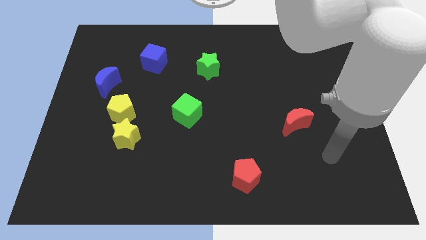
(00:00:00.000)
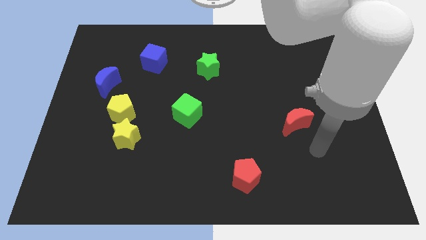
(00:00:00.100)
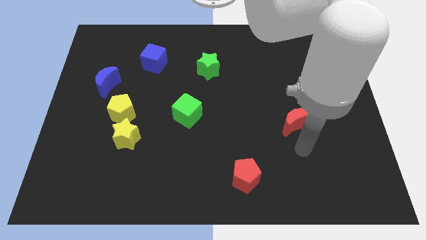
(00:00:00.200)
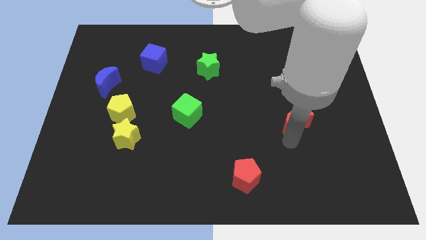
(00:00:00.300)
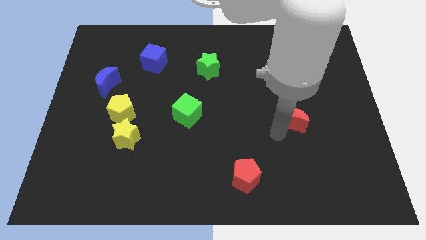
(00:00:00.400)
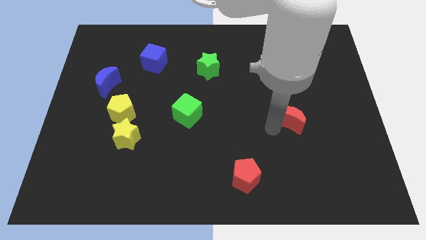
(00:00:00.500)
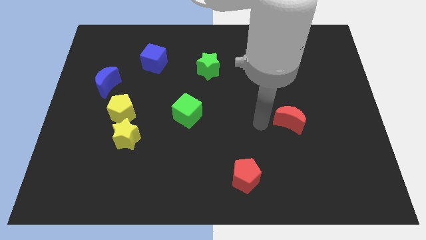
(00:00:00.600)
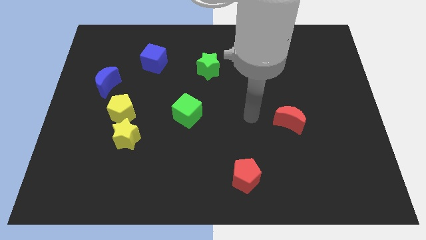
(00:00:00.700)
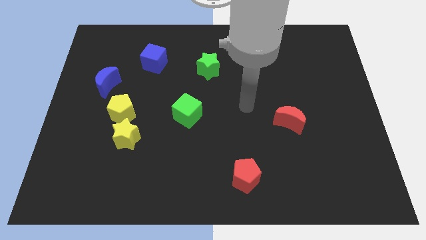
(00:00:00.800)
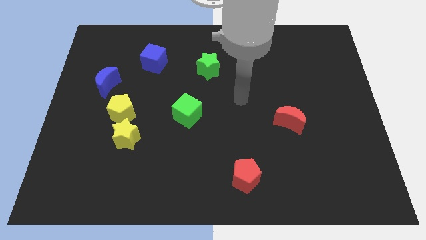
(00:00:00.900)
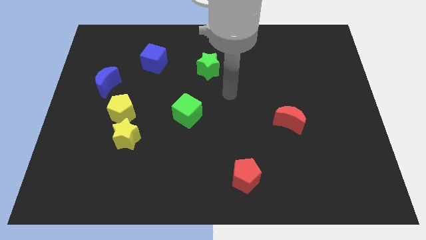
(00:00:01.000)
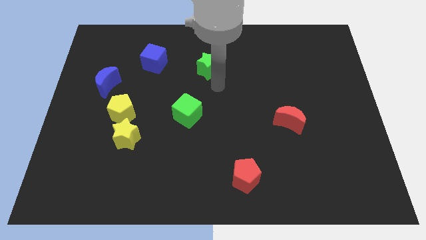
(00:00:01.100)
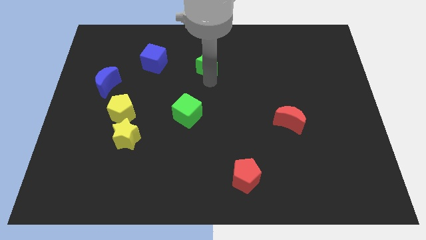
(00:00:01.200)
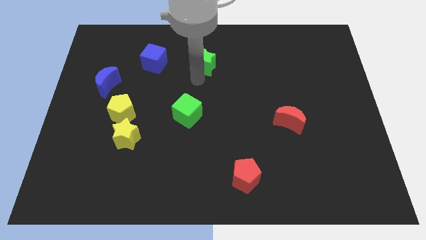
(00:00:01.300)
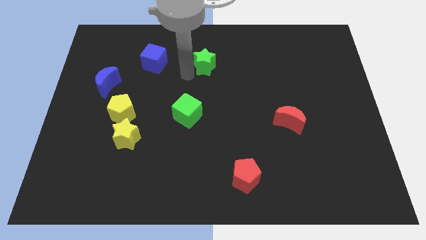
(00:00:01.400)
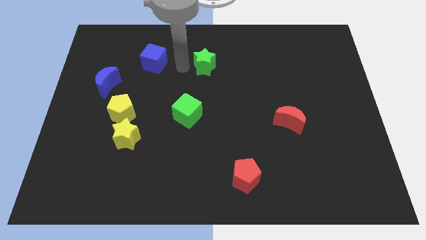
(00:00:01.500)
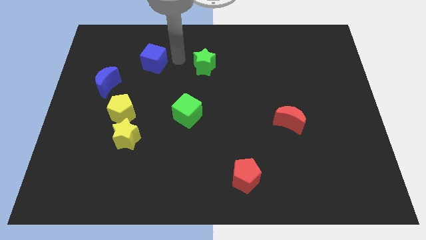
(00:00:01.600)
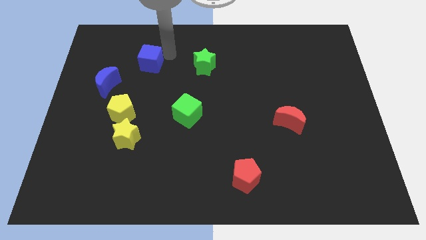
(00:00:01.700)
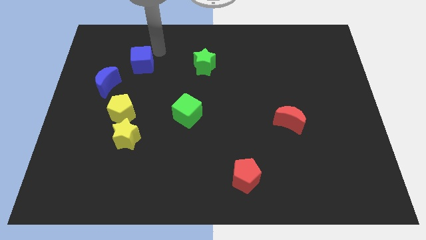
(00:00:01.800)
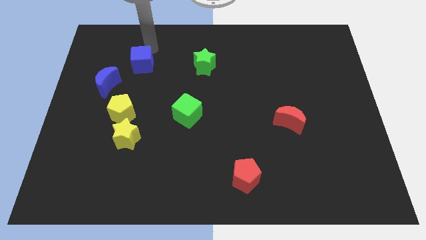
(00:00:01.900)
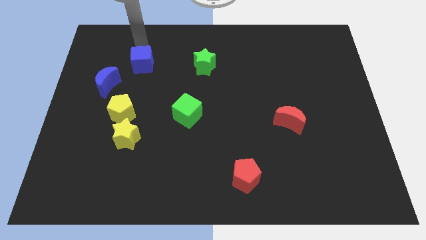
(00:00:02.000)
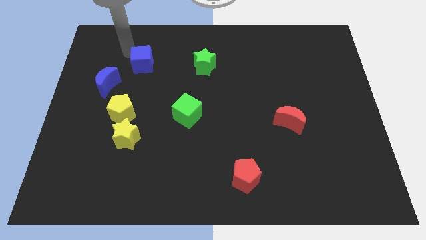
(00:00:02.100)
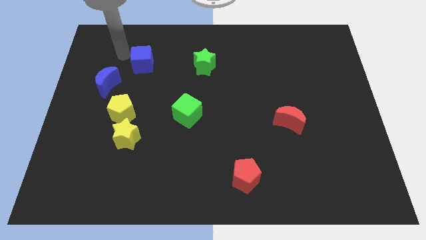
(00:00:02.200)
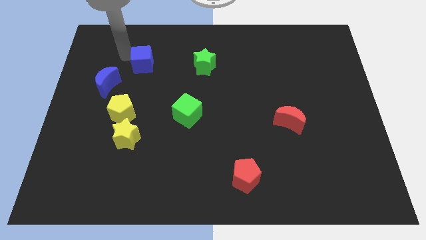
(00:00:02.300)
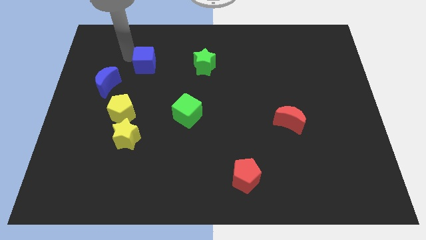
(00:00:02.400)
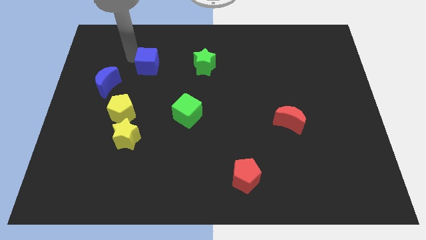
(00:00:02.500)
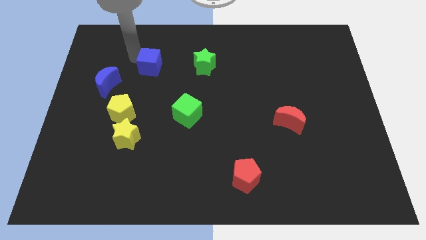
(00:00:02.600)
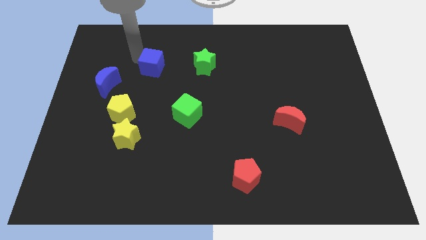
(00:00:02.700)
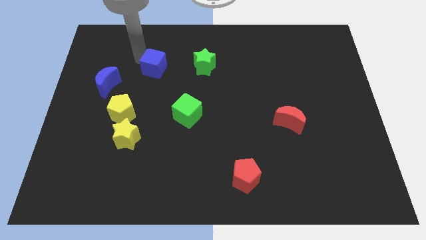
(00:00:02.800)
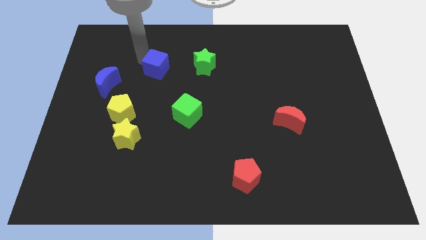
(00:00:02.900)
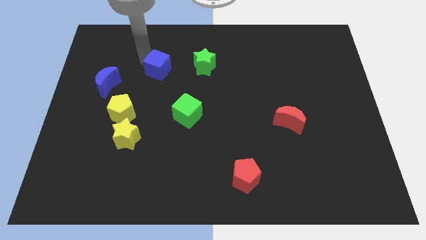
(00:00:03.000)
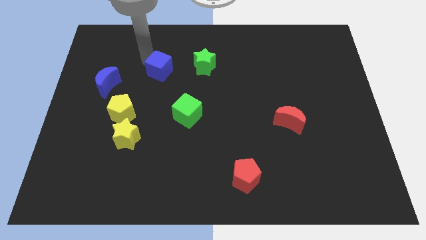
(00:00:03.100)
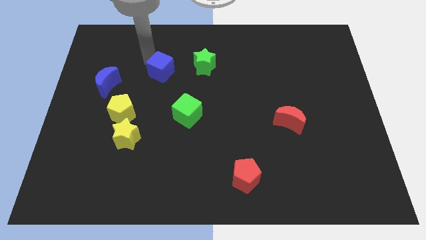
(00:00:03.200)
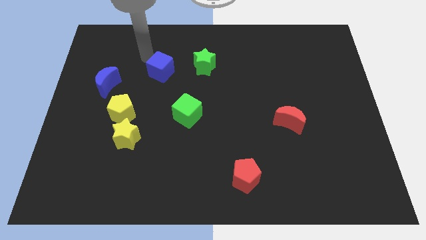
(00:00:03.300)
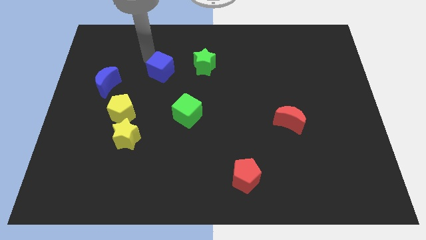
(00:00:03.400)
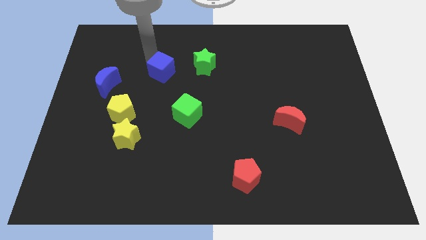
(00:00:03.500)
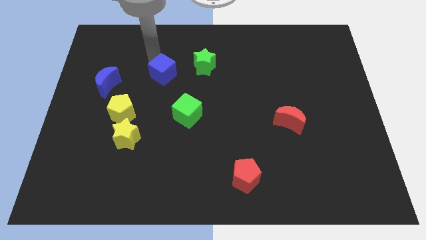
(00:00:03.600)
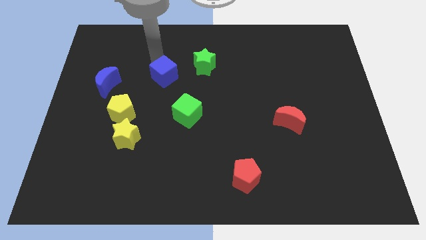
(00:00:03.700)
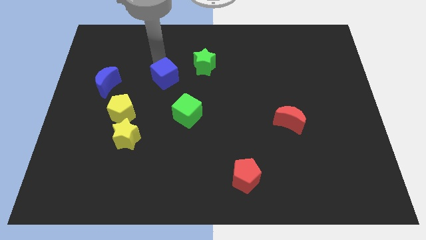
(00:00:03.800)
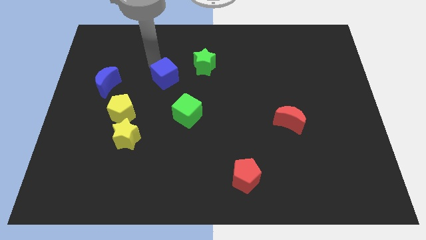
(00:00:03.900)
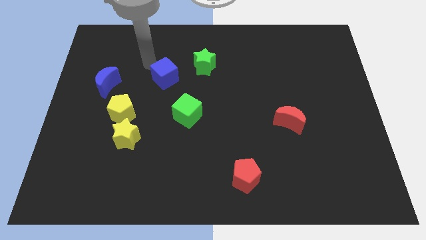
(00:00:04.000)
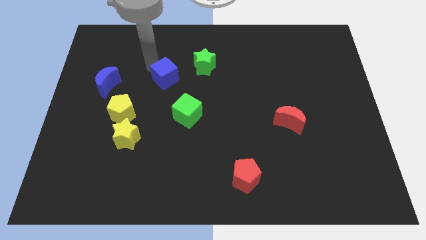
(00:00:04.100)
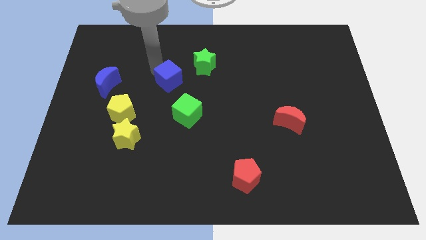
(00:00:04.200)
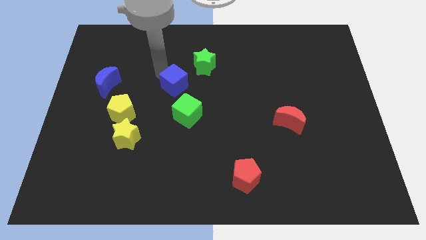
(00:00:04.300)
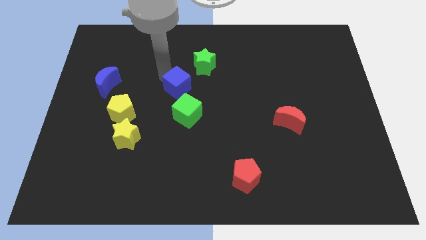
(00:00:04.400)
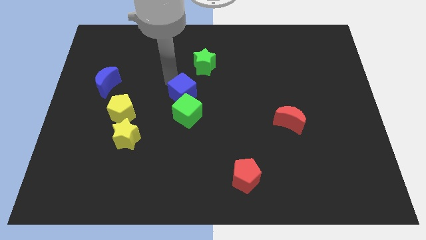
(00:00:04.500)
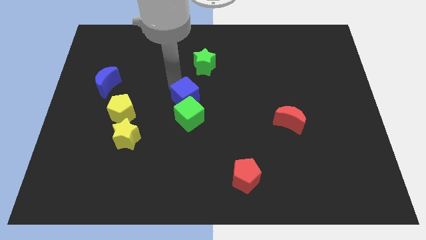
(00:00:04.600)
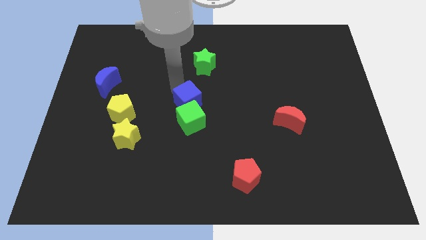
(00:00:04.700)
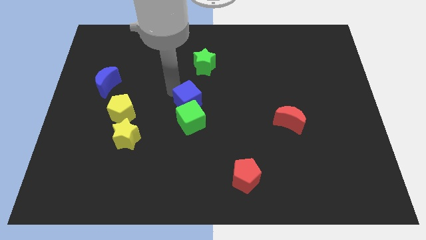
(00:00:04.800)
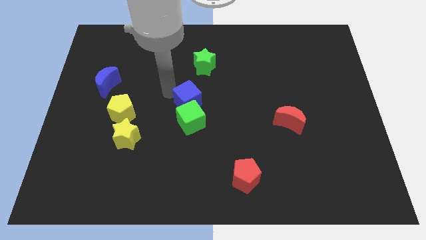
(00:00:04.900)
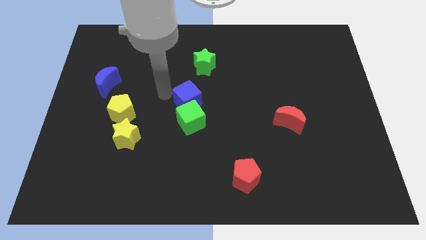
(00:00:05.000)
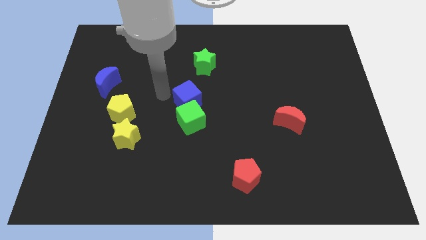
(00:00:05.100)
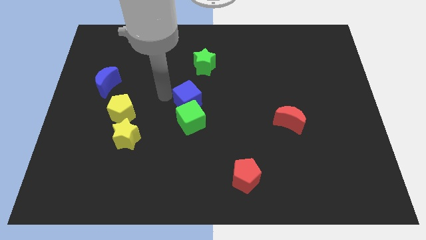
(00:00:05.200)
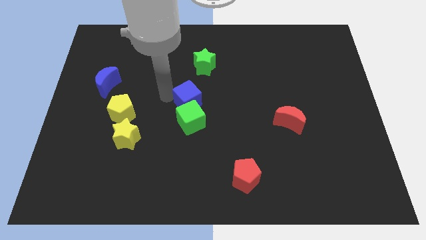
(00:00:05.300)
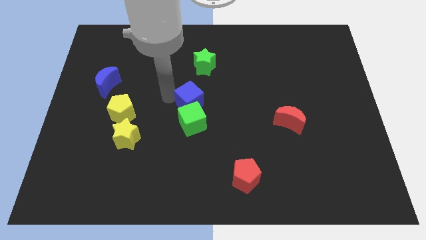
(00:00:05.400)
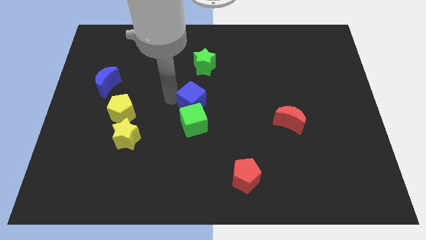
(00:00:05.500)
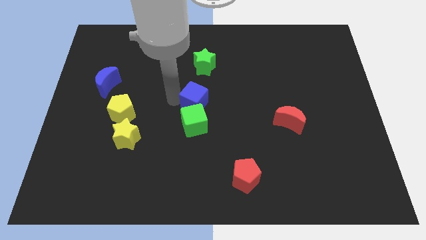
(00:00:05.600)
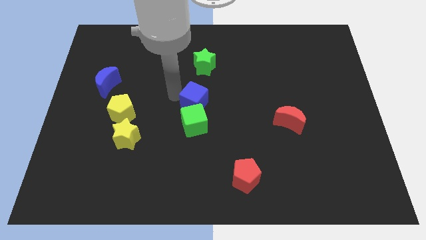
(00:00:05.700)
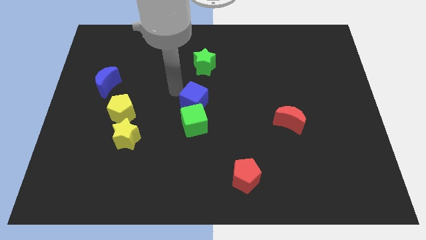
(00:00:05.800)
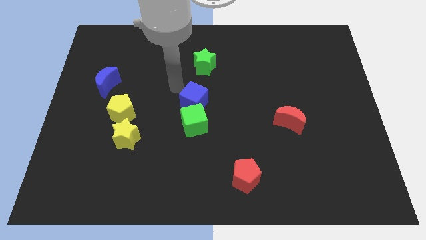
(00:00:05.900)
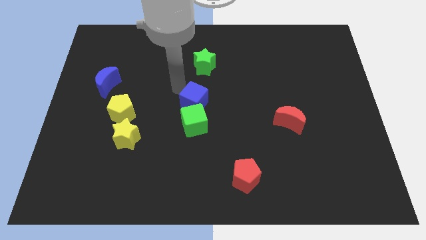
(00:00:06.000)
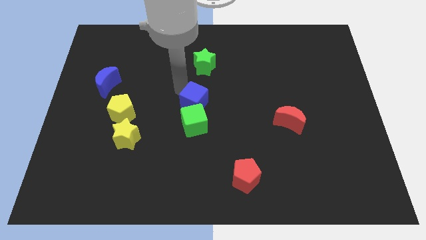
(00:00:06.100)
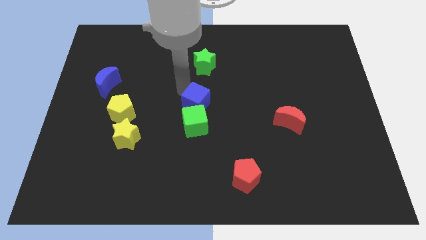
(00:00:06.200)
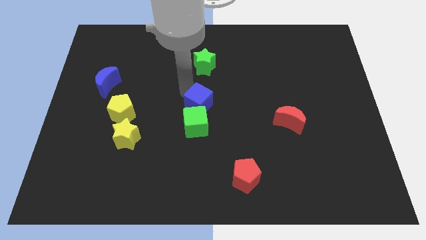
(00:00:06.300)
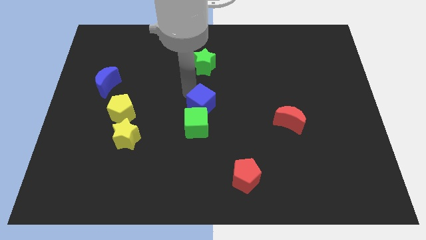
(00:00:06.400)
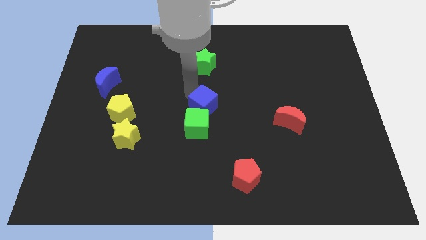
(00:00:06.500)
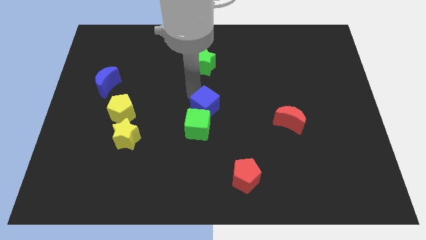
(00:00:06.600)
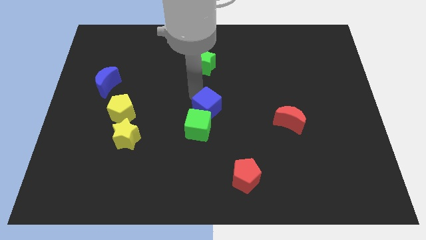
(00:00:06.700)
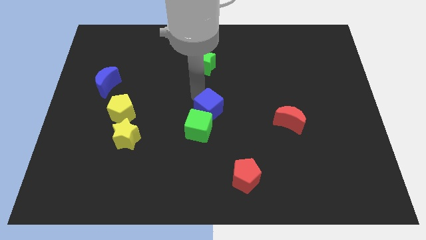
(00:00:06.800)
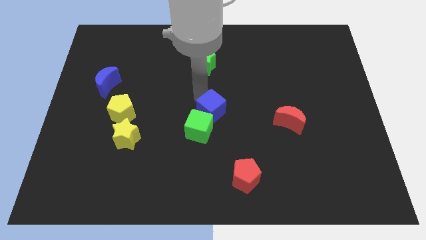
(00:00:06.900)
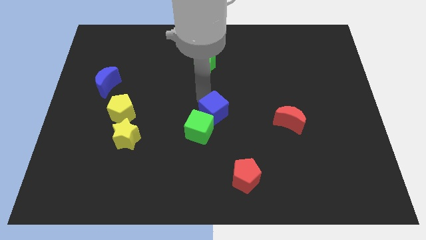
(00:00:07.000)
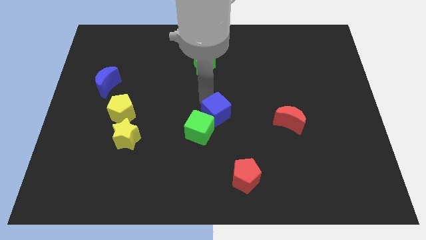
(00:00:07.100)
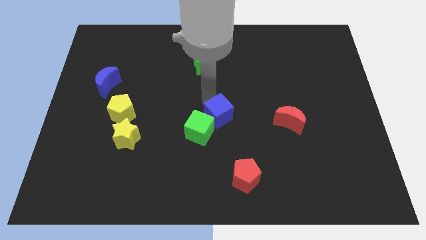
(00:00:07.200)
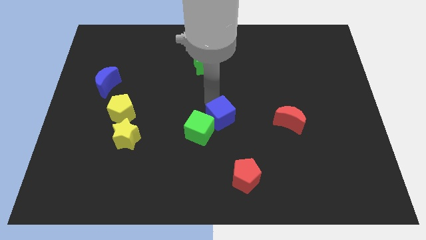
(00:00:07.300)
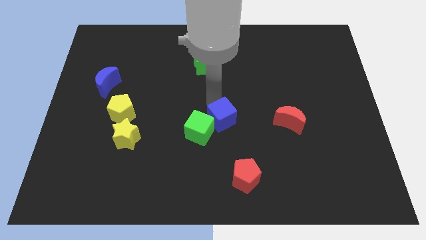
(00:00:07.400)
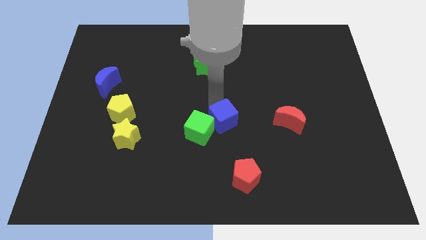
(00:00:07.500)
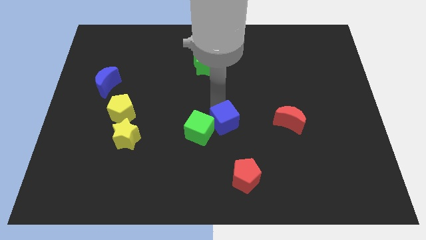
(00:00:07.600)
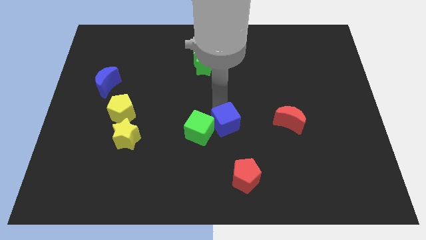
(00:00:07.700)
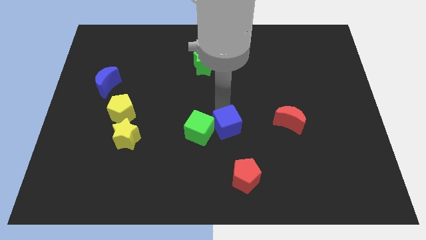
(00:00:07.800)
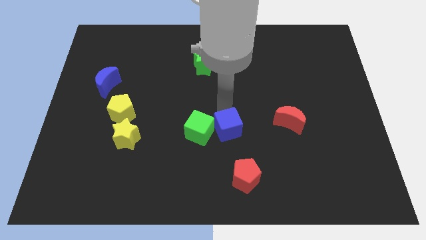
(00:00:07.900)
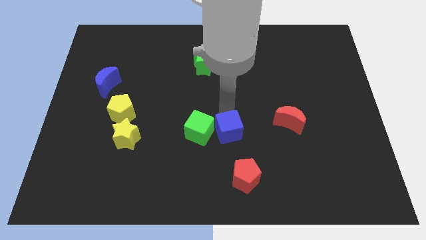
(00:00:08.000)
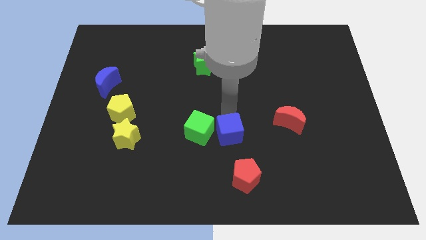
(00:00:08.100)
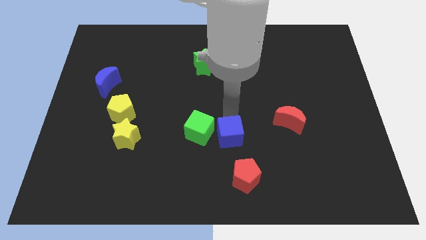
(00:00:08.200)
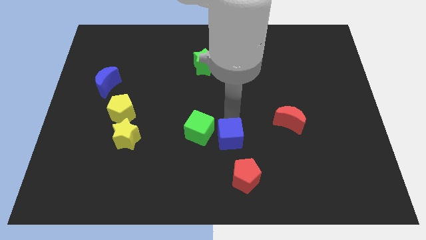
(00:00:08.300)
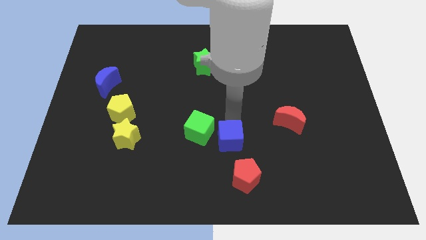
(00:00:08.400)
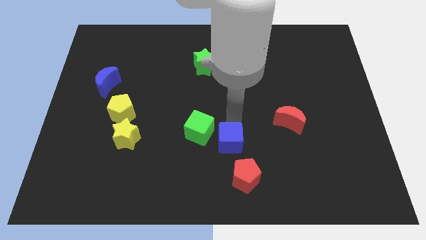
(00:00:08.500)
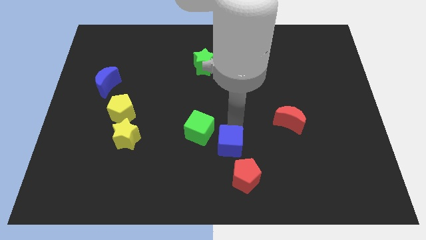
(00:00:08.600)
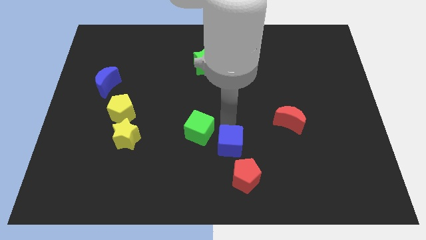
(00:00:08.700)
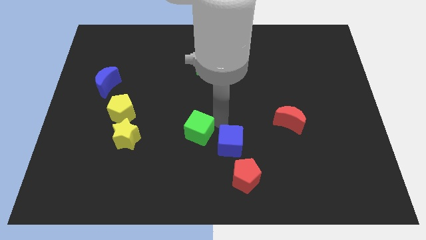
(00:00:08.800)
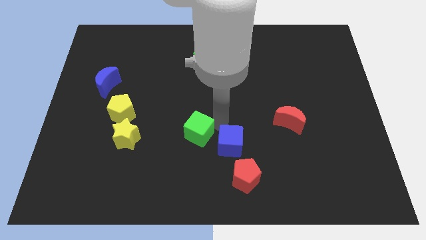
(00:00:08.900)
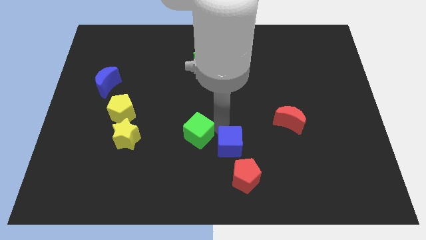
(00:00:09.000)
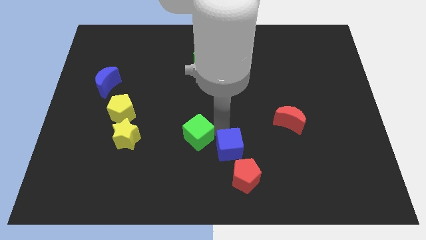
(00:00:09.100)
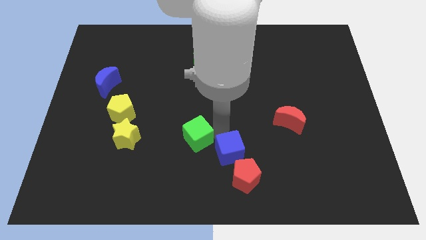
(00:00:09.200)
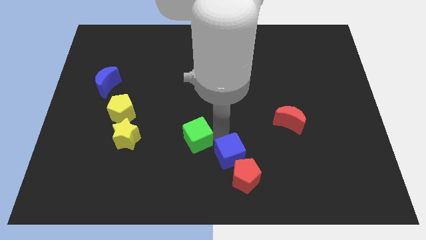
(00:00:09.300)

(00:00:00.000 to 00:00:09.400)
push the blue cube to the red pentagon
